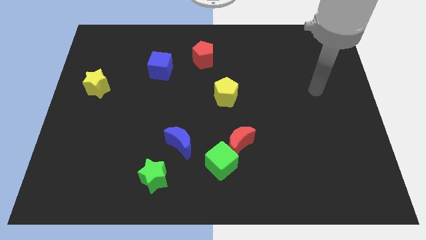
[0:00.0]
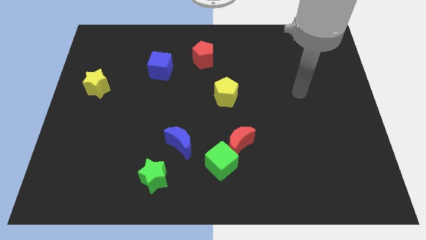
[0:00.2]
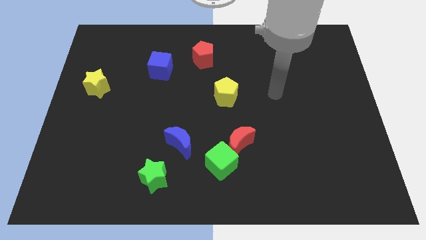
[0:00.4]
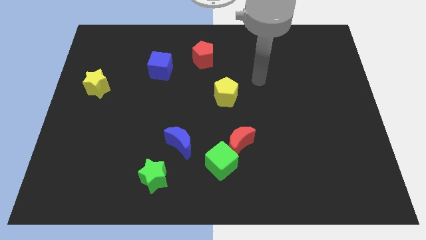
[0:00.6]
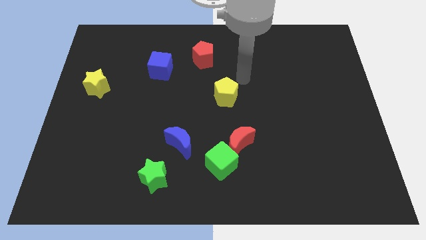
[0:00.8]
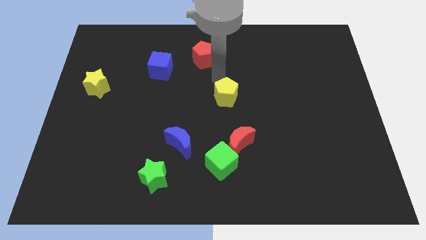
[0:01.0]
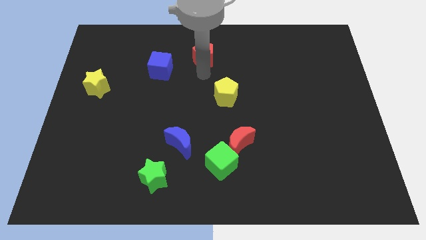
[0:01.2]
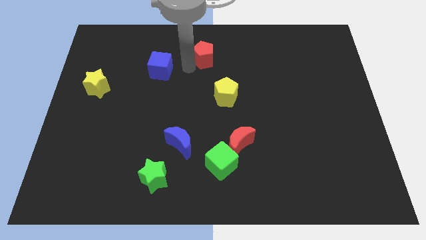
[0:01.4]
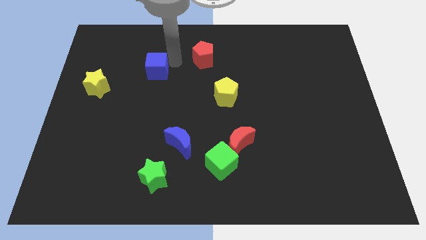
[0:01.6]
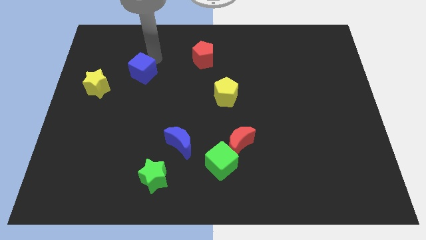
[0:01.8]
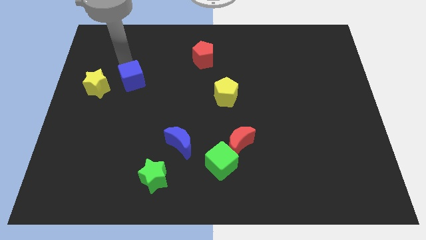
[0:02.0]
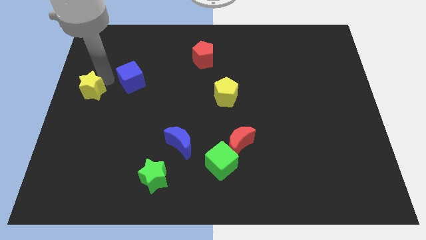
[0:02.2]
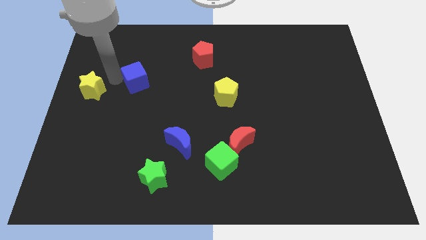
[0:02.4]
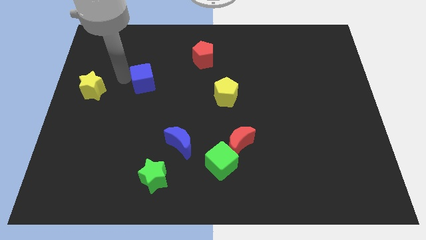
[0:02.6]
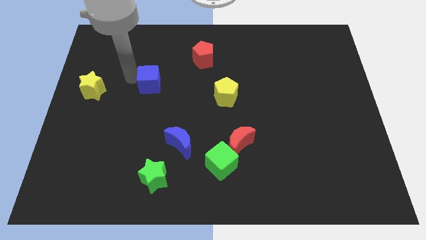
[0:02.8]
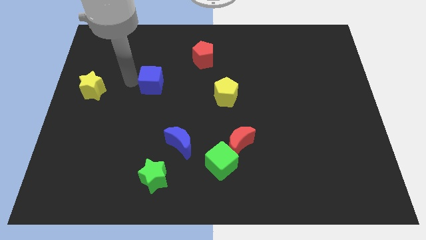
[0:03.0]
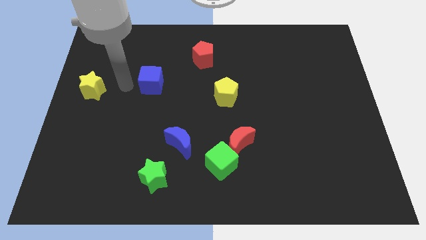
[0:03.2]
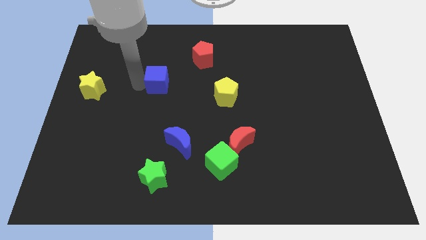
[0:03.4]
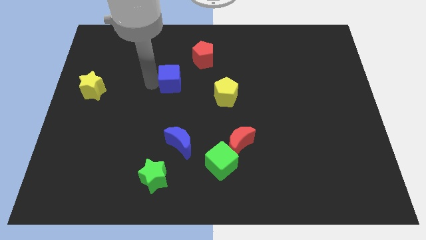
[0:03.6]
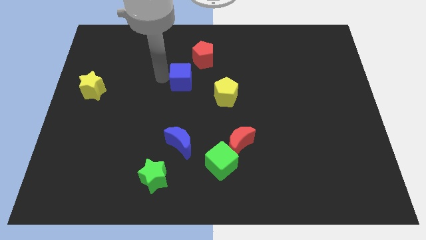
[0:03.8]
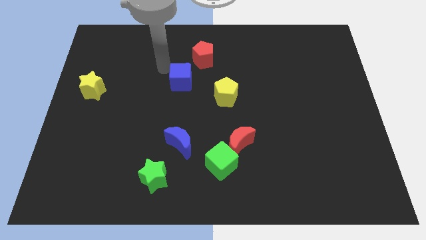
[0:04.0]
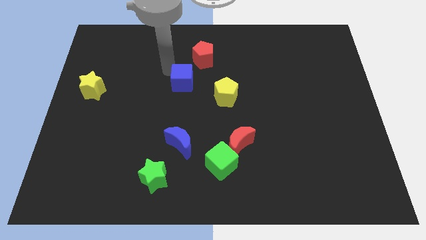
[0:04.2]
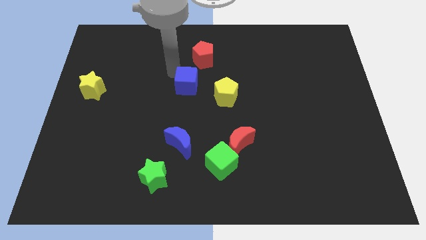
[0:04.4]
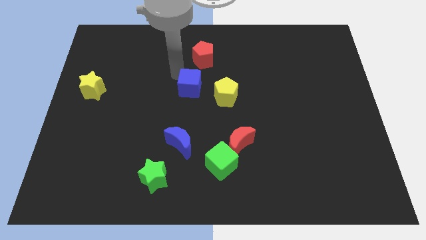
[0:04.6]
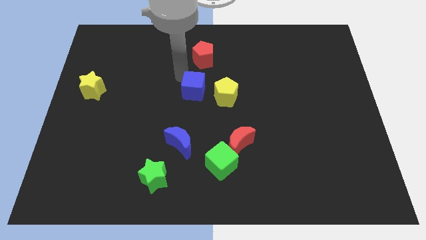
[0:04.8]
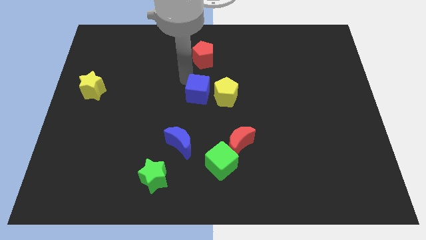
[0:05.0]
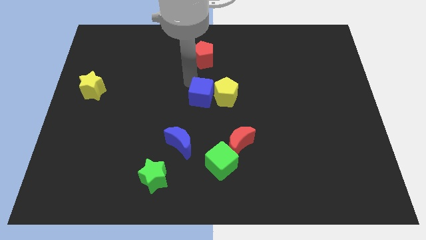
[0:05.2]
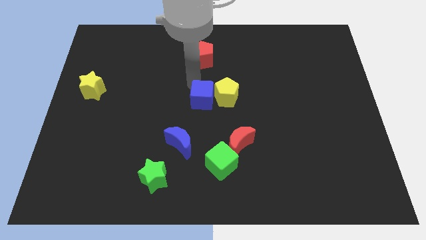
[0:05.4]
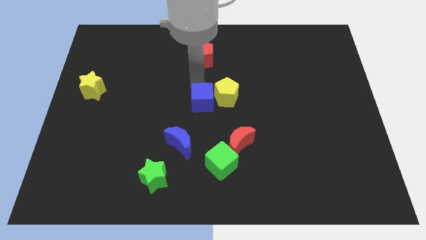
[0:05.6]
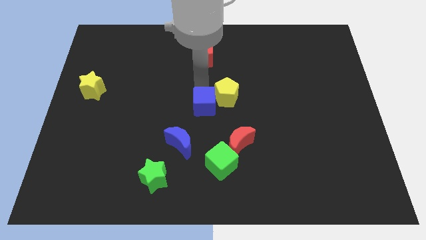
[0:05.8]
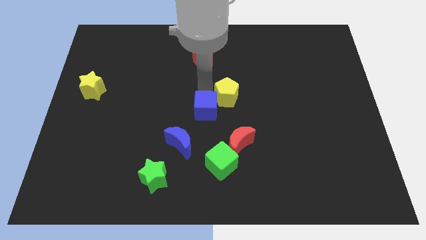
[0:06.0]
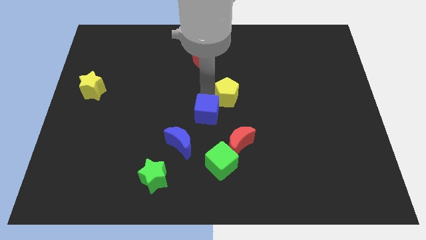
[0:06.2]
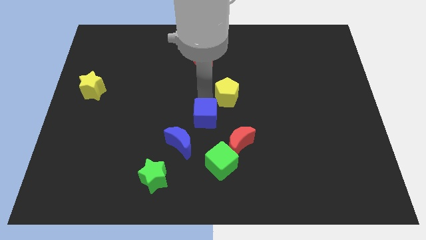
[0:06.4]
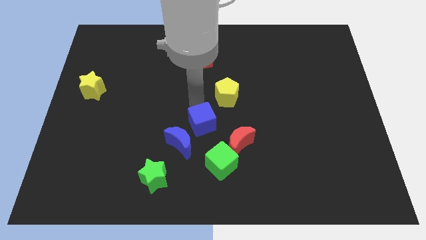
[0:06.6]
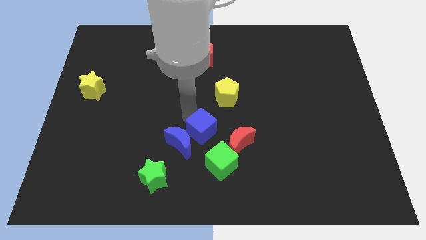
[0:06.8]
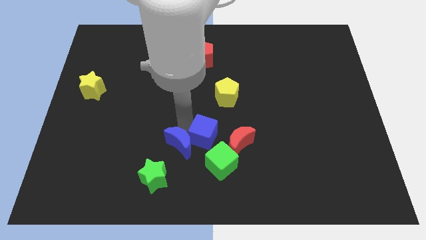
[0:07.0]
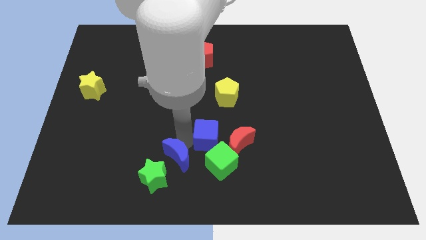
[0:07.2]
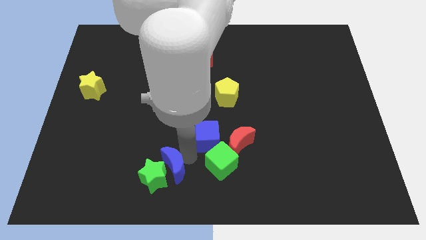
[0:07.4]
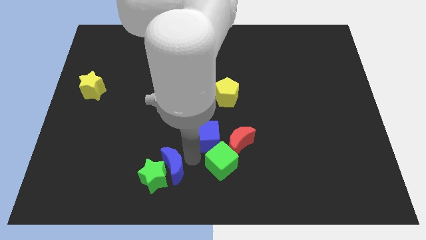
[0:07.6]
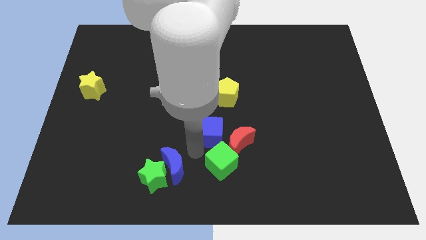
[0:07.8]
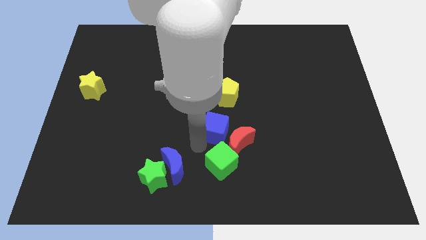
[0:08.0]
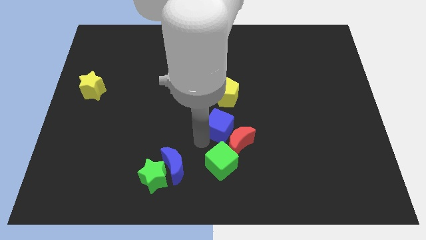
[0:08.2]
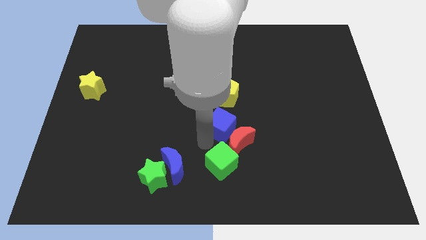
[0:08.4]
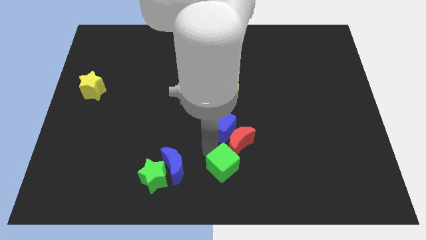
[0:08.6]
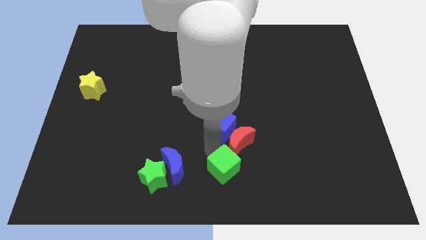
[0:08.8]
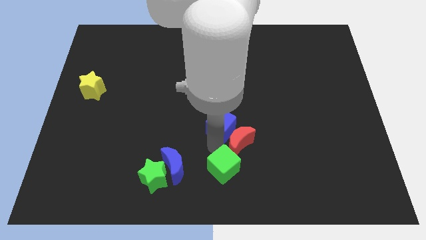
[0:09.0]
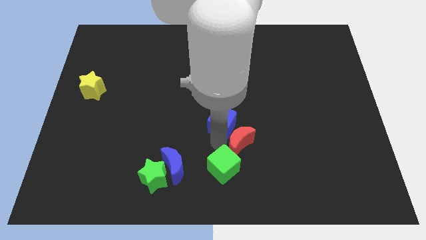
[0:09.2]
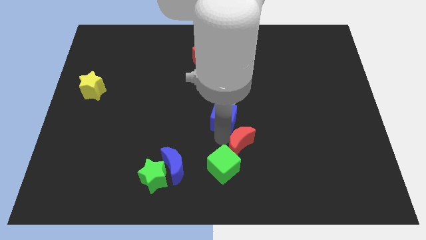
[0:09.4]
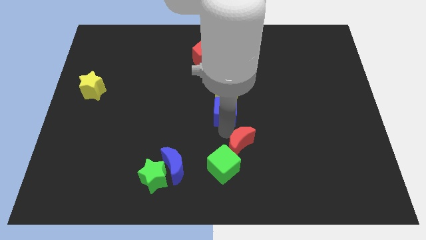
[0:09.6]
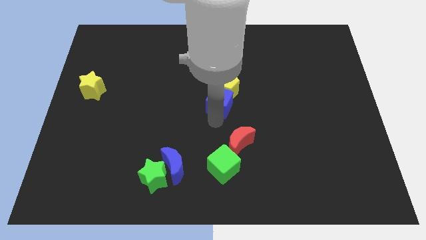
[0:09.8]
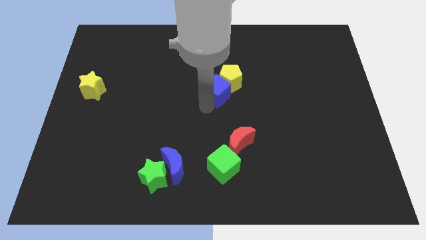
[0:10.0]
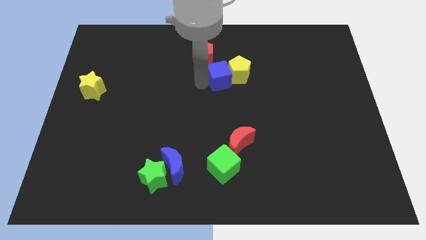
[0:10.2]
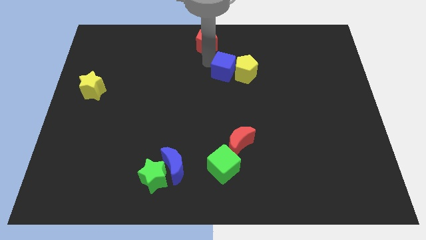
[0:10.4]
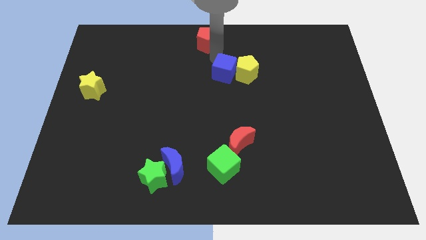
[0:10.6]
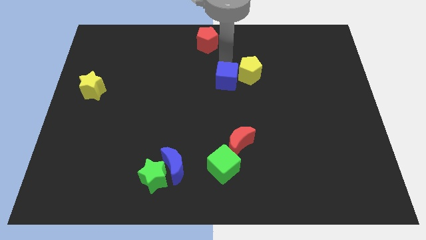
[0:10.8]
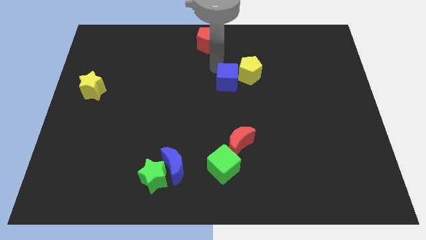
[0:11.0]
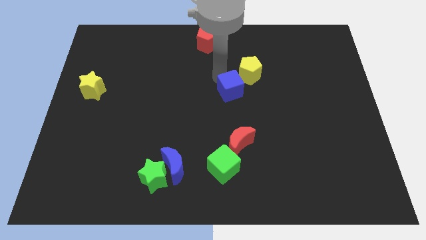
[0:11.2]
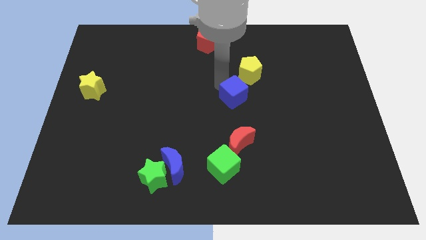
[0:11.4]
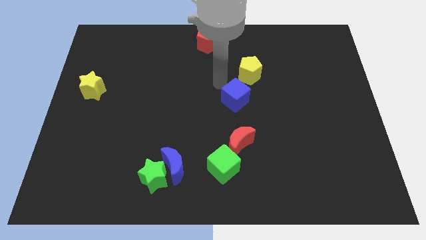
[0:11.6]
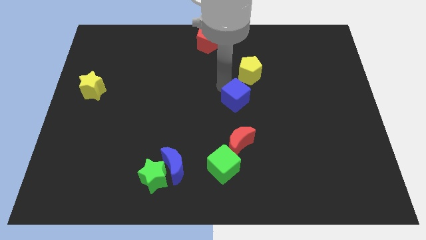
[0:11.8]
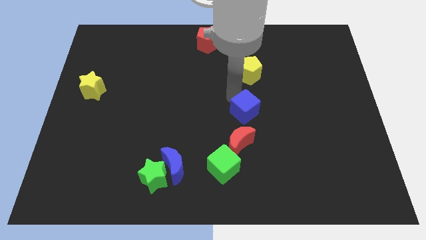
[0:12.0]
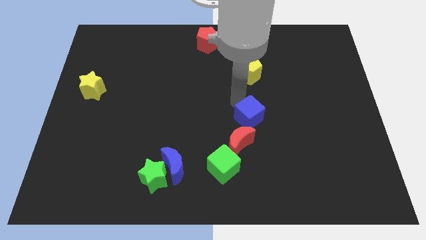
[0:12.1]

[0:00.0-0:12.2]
move the blue cube diagonally up and to the right of the red moon
